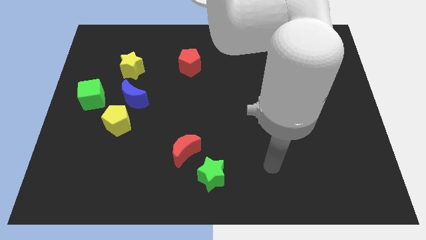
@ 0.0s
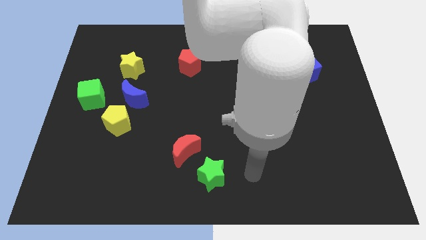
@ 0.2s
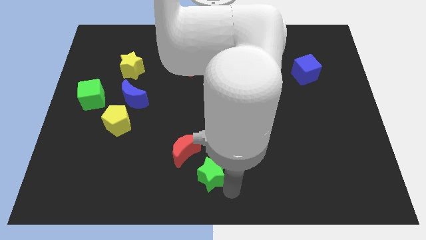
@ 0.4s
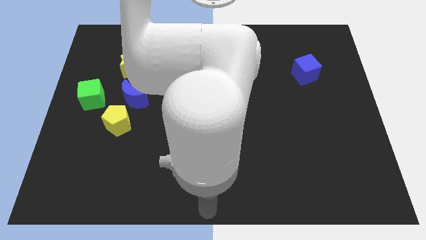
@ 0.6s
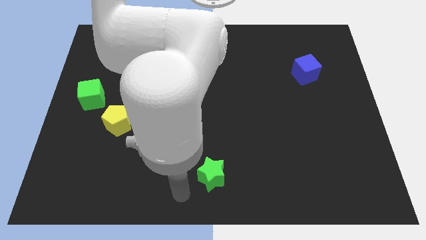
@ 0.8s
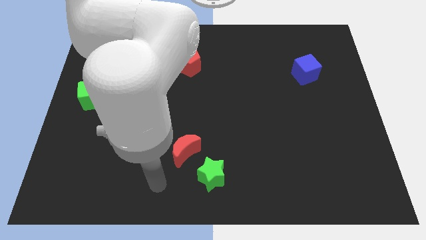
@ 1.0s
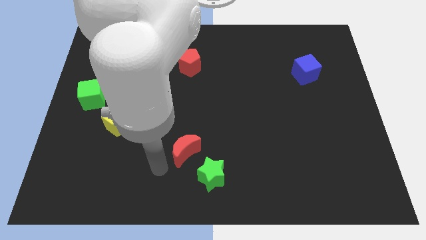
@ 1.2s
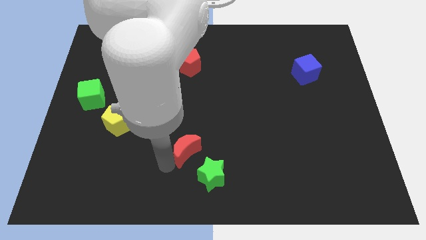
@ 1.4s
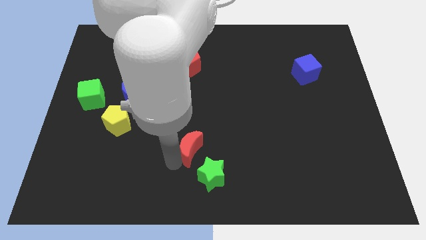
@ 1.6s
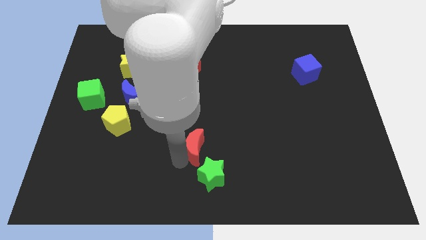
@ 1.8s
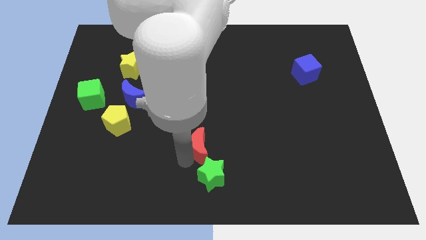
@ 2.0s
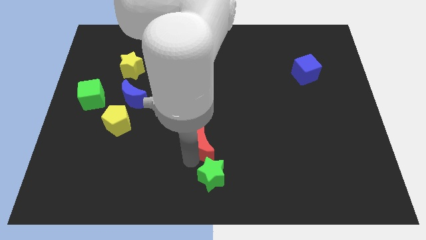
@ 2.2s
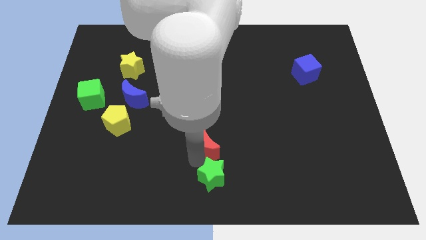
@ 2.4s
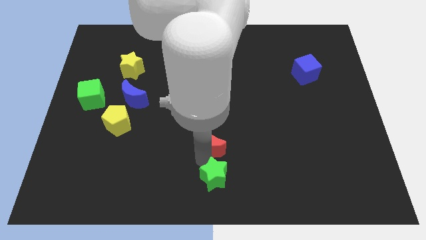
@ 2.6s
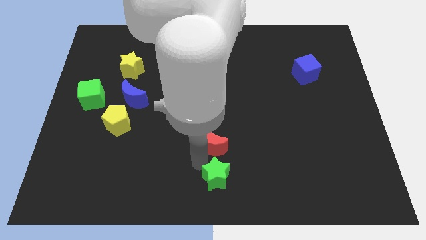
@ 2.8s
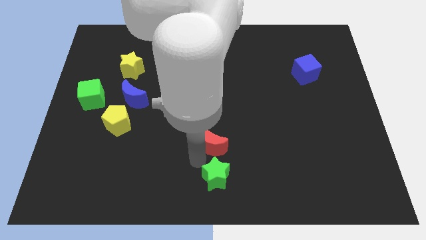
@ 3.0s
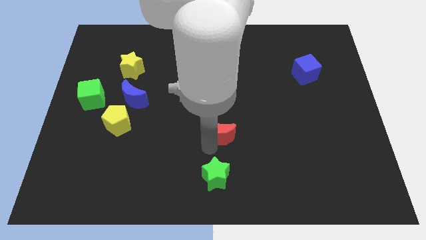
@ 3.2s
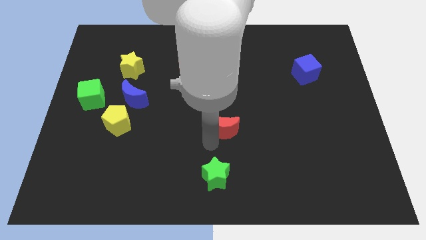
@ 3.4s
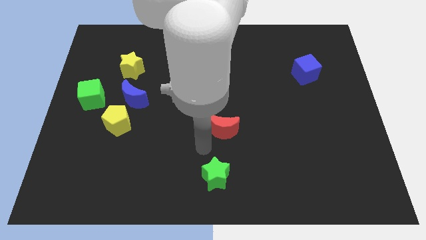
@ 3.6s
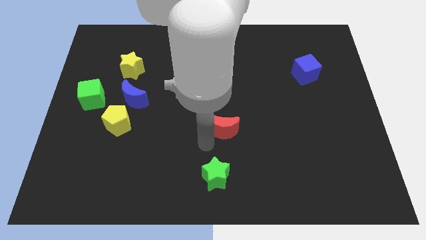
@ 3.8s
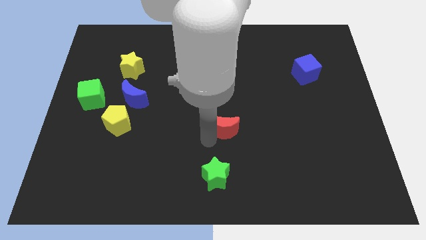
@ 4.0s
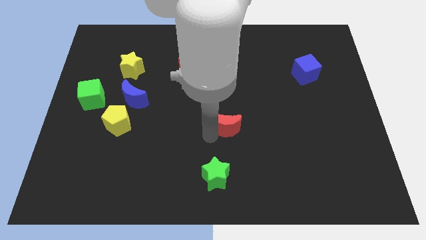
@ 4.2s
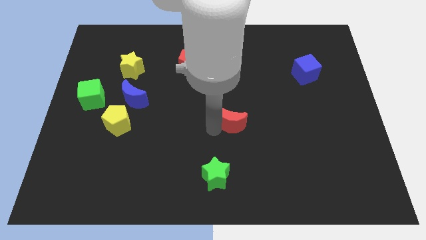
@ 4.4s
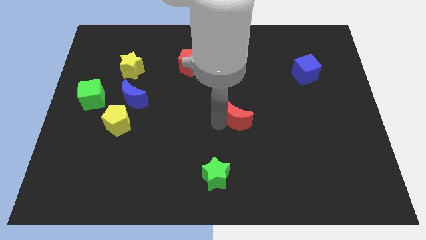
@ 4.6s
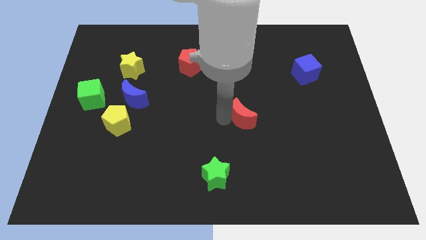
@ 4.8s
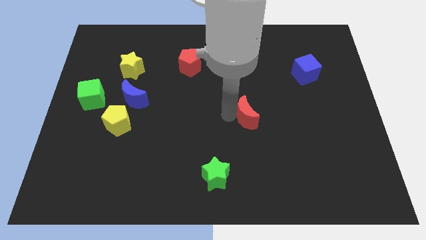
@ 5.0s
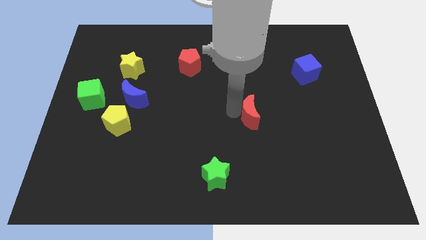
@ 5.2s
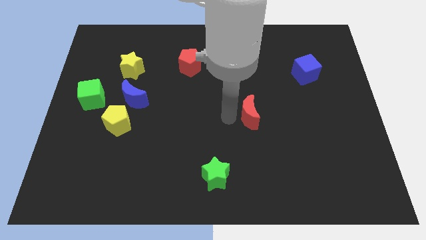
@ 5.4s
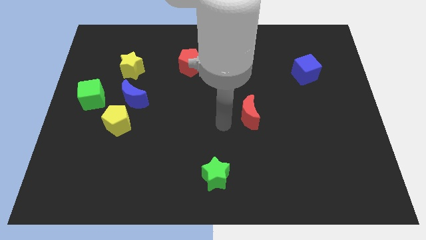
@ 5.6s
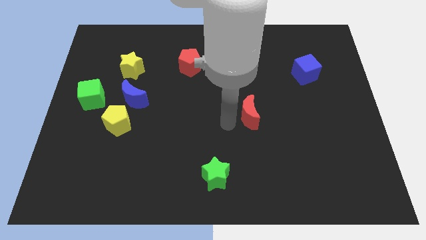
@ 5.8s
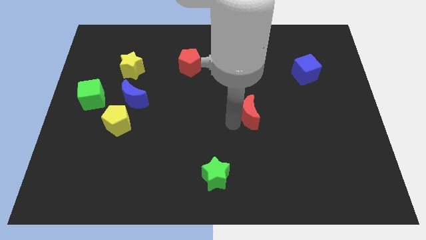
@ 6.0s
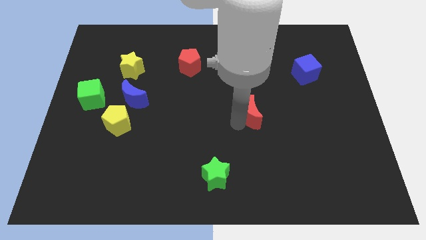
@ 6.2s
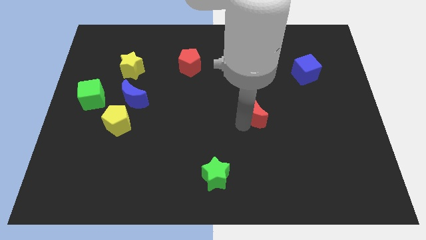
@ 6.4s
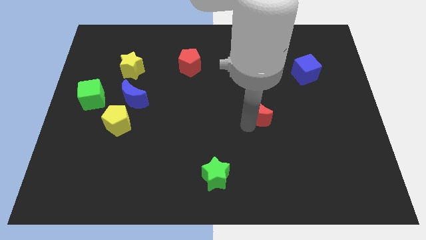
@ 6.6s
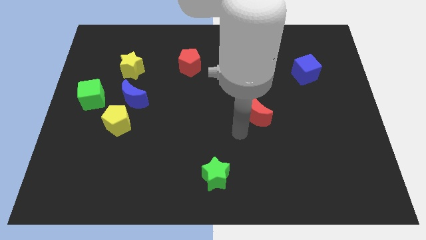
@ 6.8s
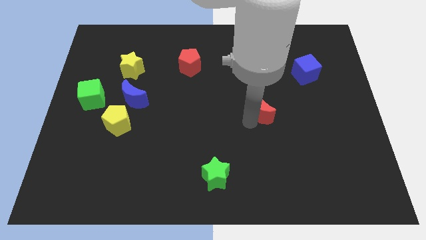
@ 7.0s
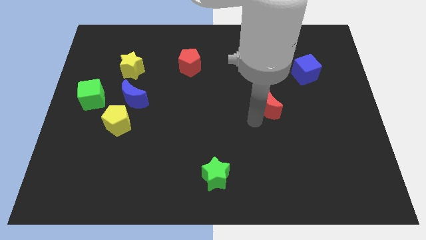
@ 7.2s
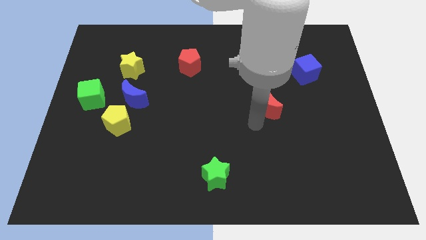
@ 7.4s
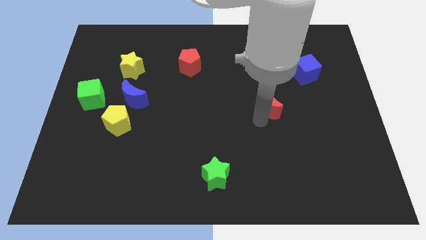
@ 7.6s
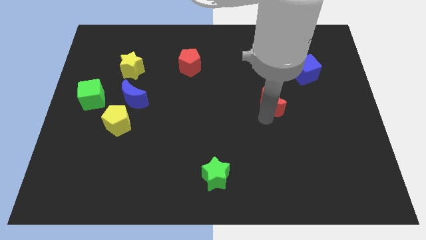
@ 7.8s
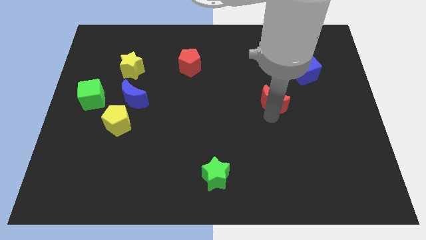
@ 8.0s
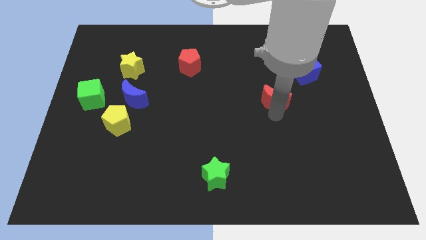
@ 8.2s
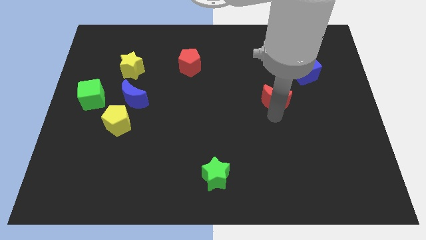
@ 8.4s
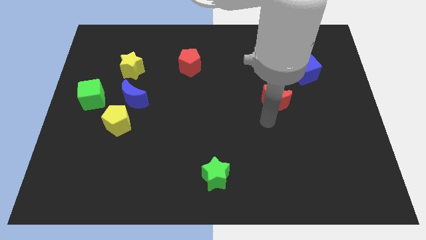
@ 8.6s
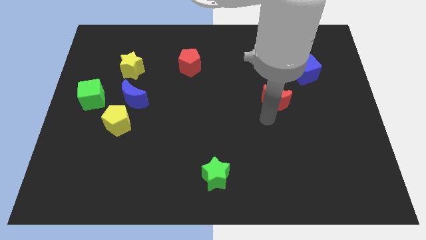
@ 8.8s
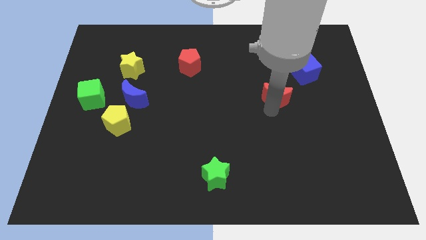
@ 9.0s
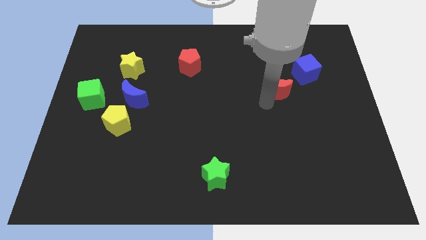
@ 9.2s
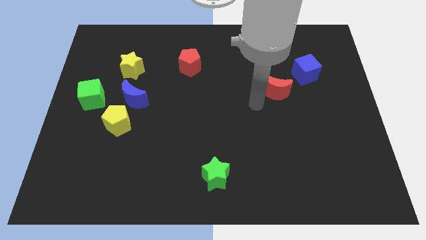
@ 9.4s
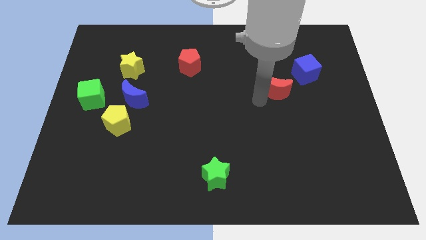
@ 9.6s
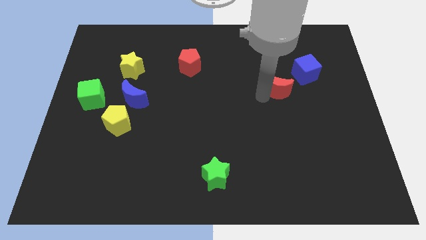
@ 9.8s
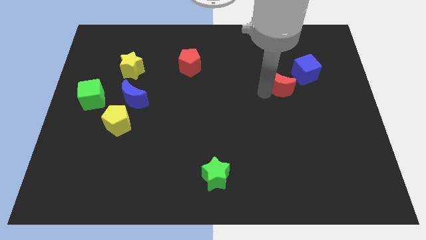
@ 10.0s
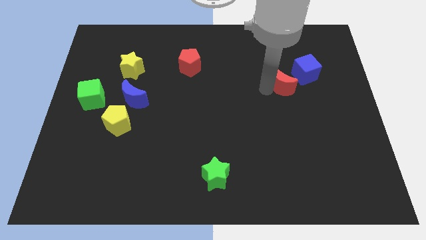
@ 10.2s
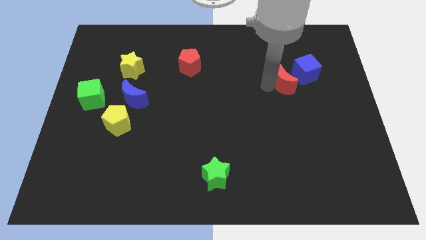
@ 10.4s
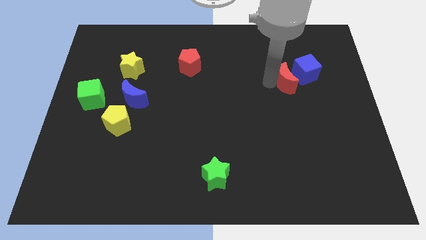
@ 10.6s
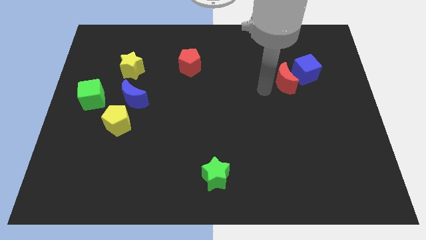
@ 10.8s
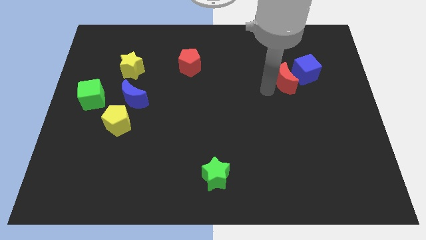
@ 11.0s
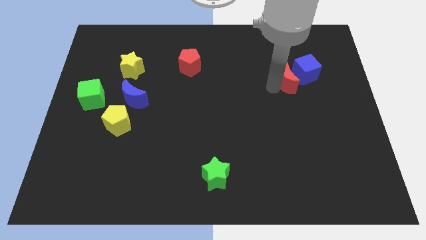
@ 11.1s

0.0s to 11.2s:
push the red moon close to the blue cube

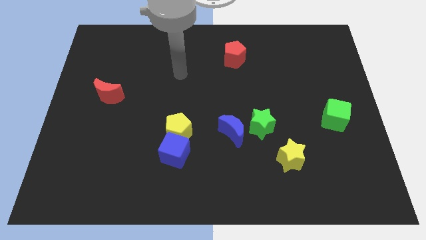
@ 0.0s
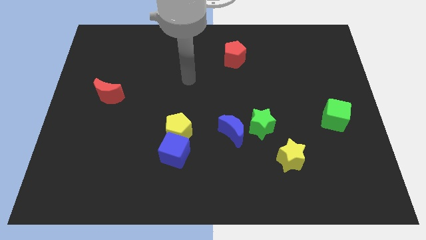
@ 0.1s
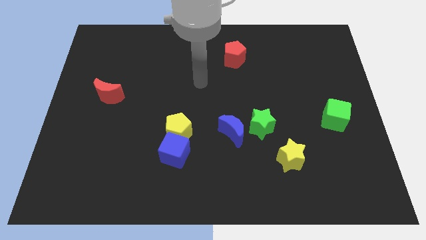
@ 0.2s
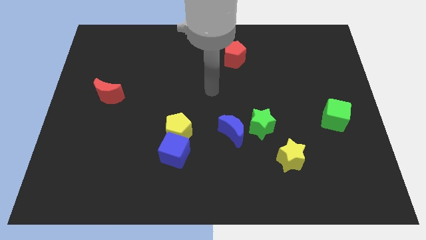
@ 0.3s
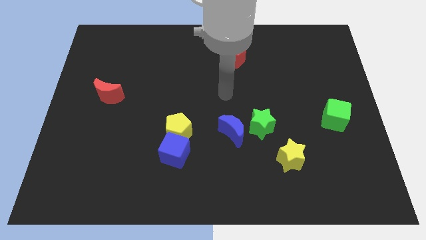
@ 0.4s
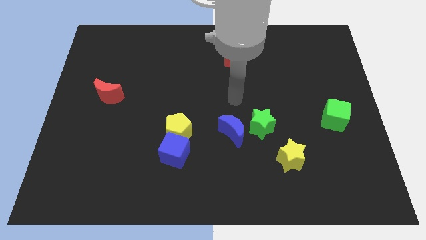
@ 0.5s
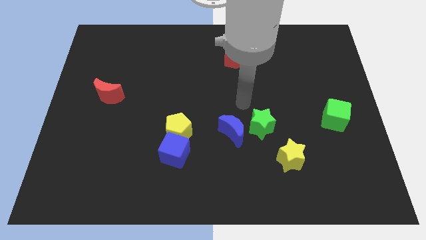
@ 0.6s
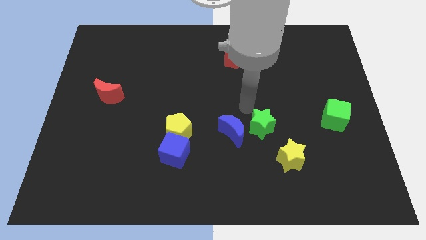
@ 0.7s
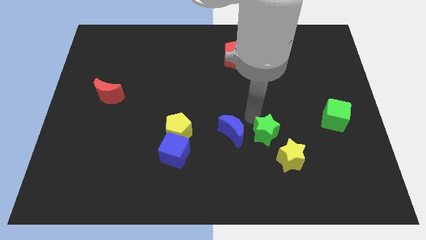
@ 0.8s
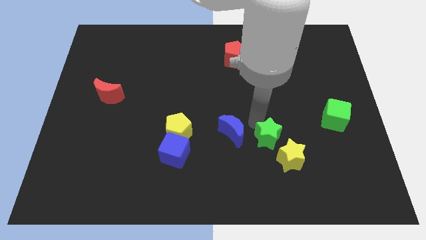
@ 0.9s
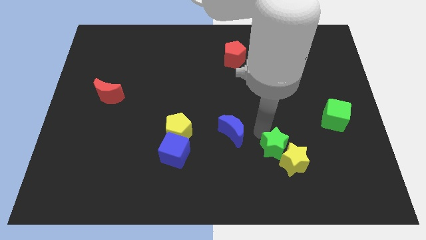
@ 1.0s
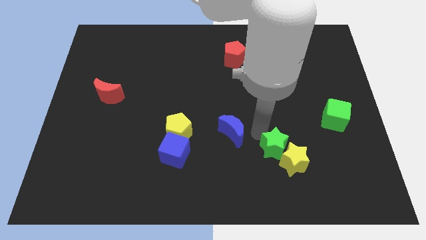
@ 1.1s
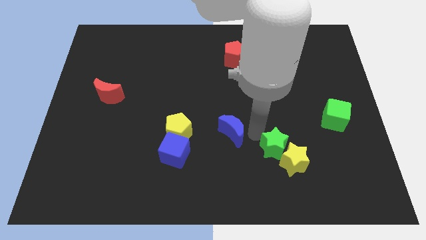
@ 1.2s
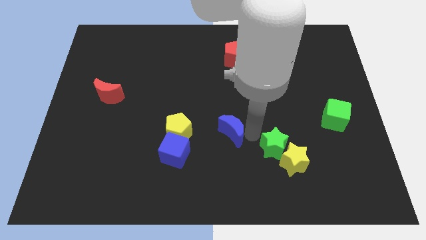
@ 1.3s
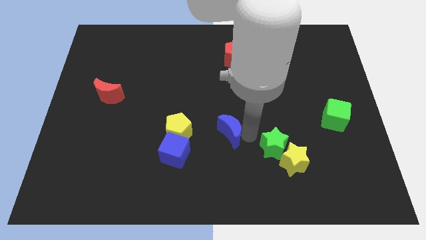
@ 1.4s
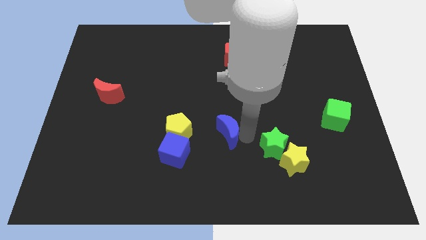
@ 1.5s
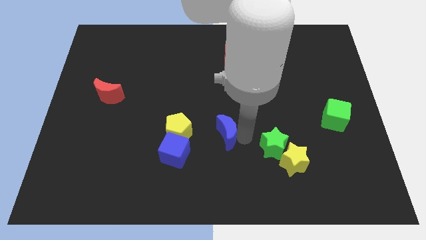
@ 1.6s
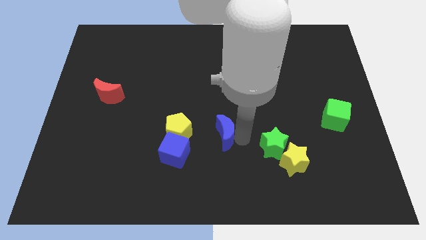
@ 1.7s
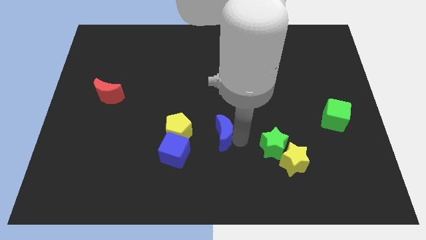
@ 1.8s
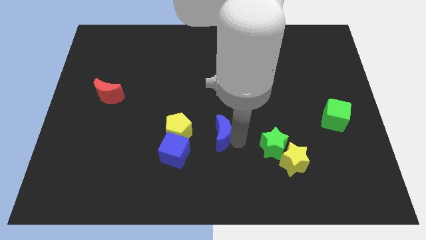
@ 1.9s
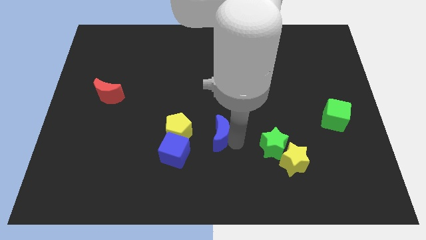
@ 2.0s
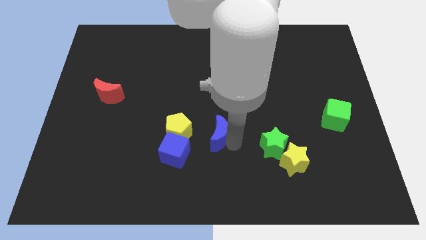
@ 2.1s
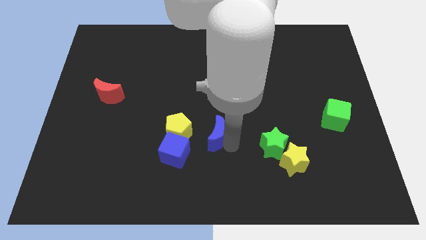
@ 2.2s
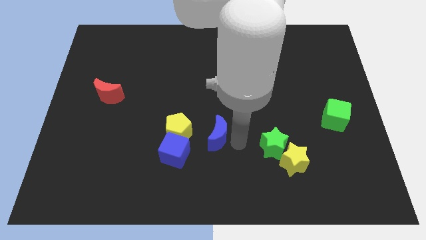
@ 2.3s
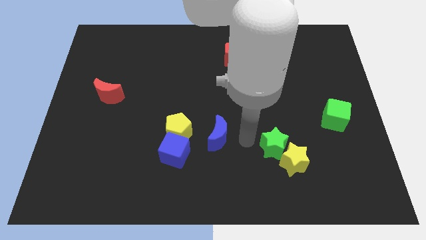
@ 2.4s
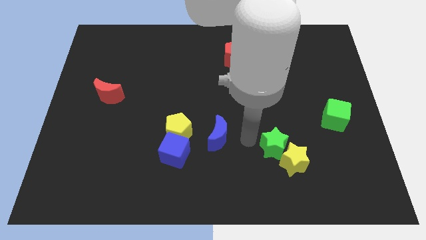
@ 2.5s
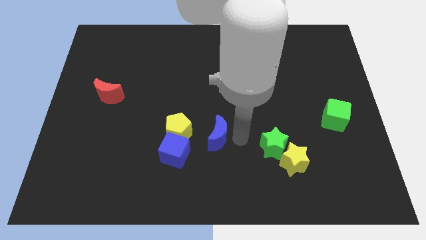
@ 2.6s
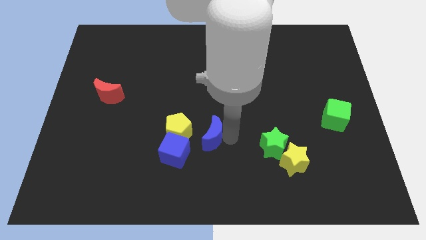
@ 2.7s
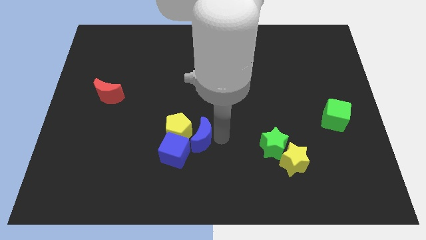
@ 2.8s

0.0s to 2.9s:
slide the blue moon towards the yellow pentagon
